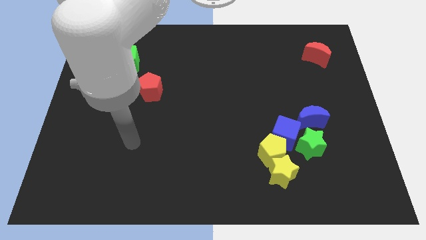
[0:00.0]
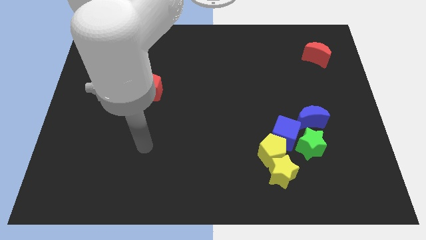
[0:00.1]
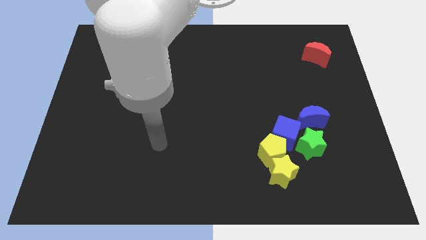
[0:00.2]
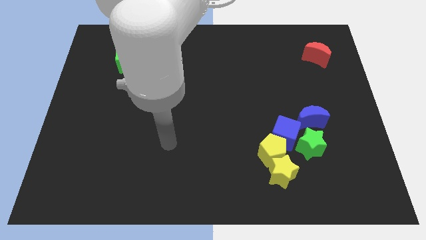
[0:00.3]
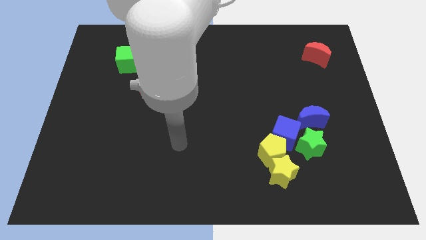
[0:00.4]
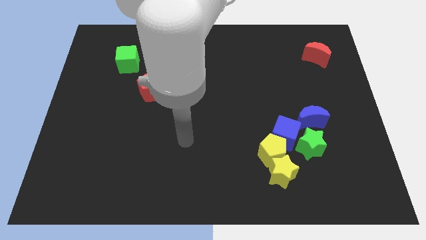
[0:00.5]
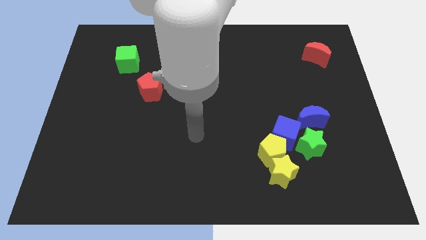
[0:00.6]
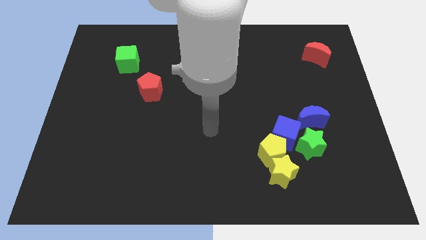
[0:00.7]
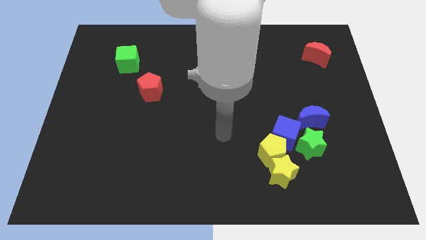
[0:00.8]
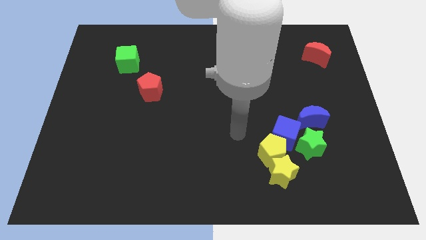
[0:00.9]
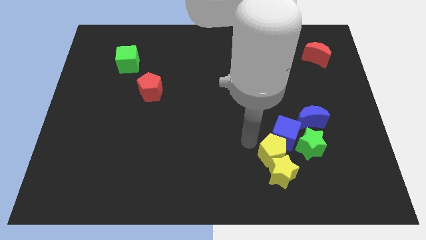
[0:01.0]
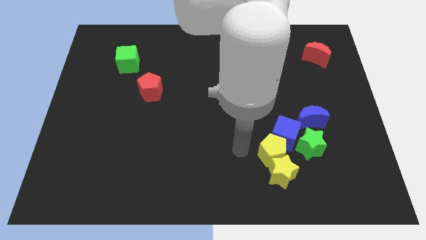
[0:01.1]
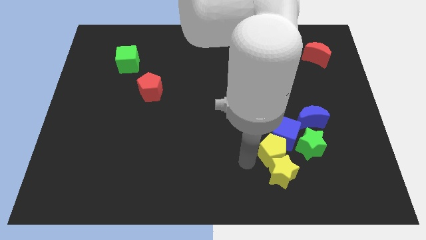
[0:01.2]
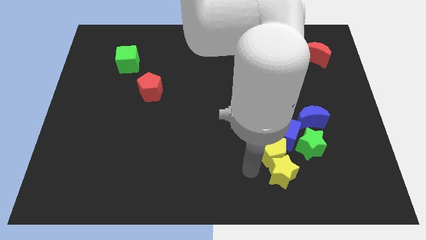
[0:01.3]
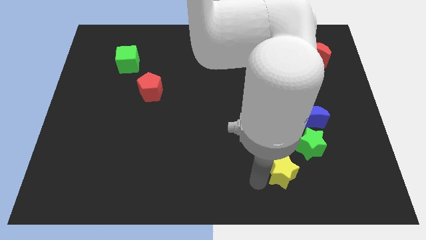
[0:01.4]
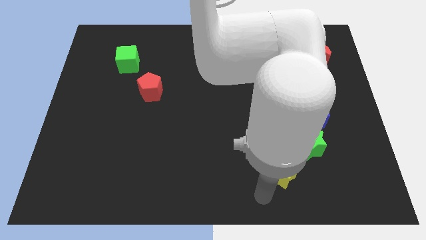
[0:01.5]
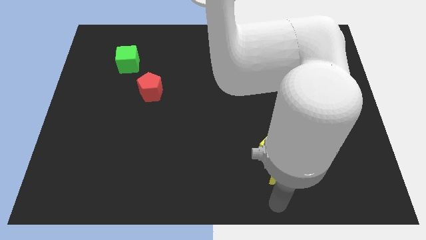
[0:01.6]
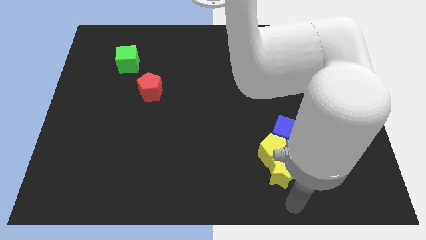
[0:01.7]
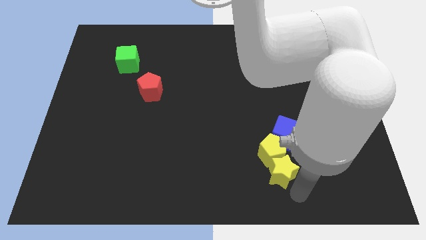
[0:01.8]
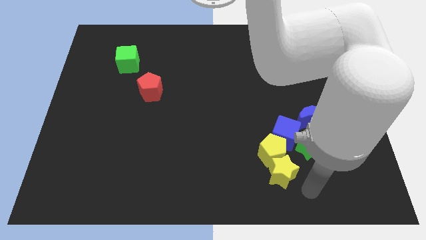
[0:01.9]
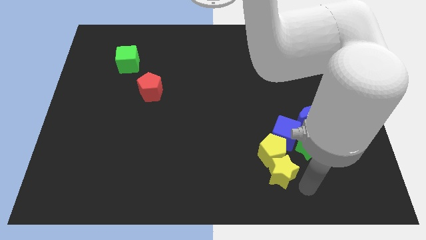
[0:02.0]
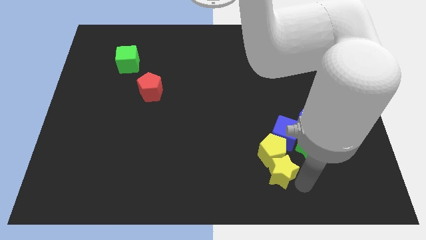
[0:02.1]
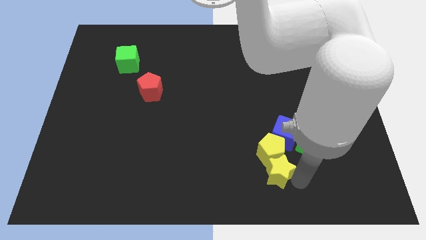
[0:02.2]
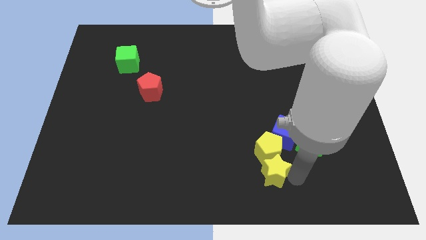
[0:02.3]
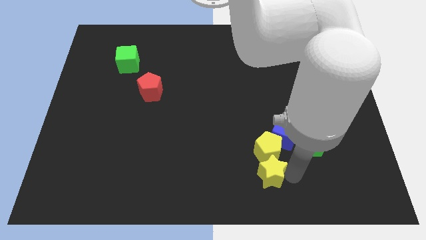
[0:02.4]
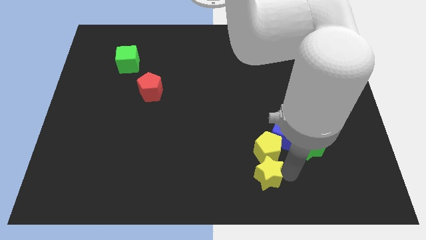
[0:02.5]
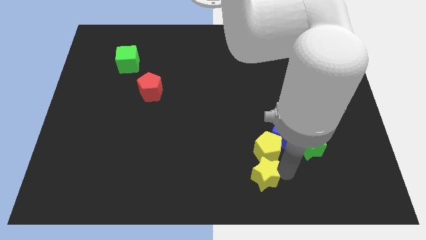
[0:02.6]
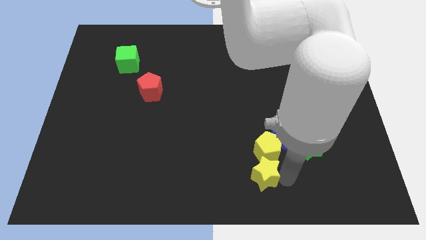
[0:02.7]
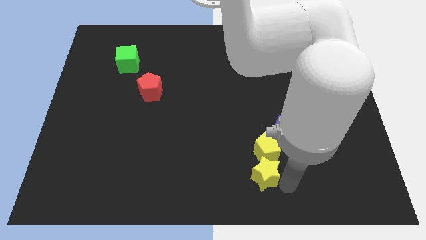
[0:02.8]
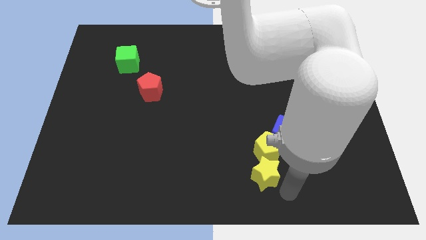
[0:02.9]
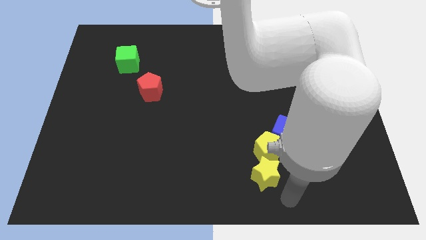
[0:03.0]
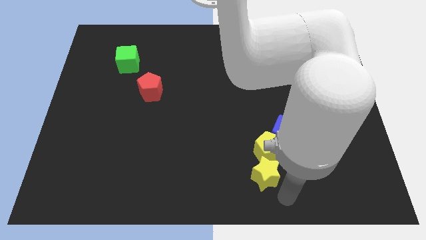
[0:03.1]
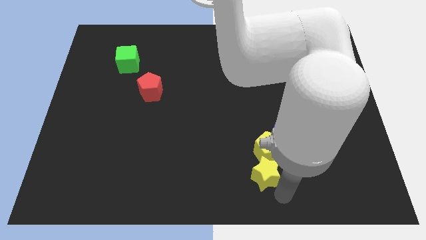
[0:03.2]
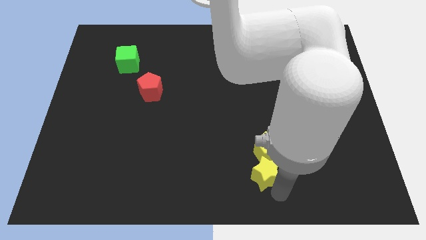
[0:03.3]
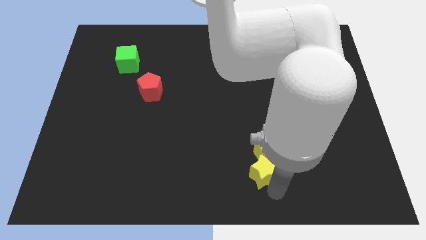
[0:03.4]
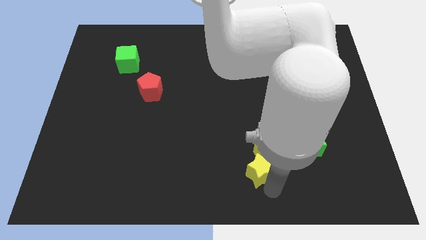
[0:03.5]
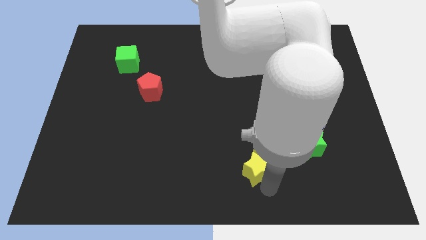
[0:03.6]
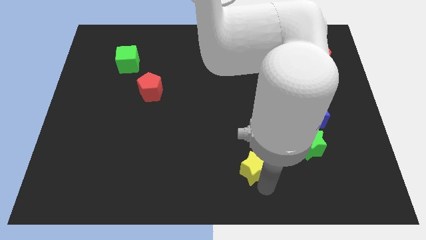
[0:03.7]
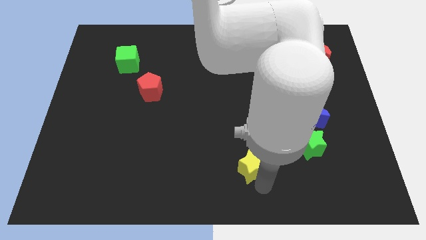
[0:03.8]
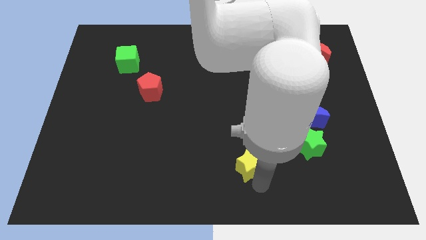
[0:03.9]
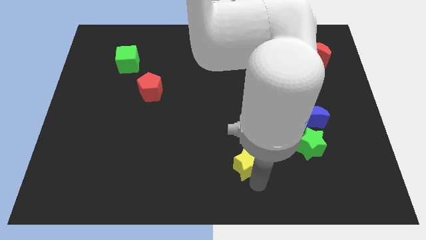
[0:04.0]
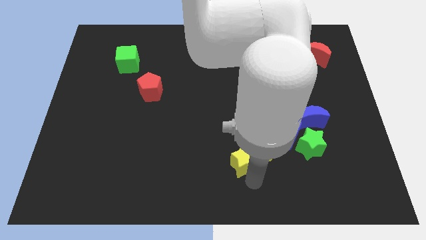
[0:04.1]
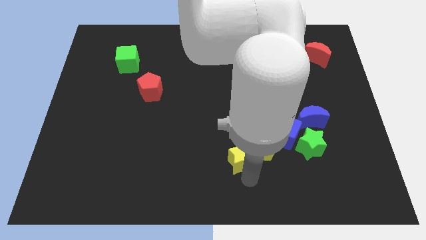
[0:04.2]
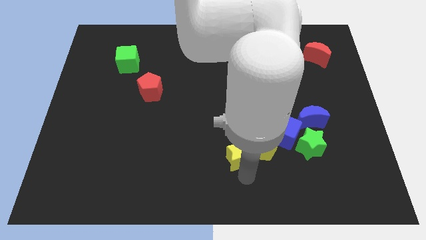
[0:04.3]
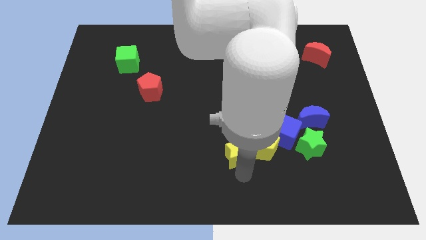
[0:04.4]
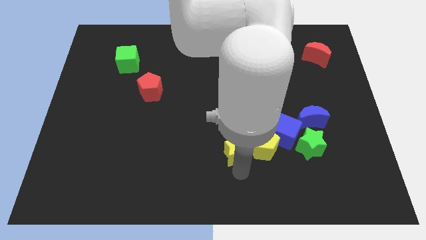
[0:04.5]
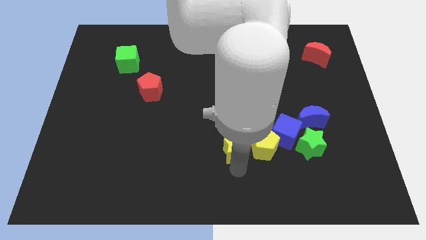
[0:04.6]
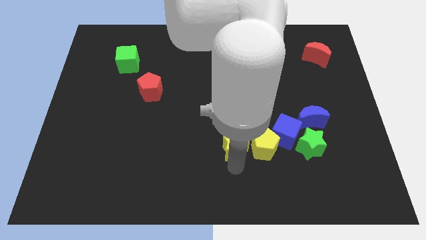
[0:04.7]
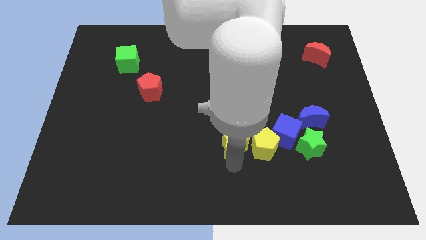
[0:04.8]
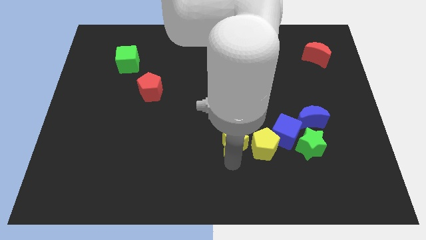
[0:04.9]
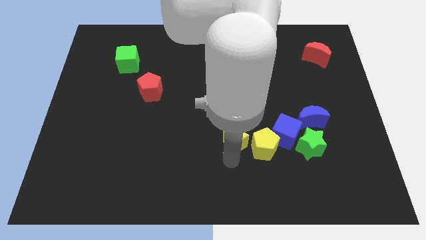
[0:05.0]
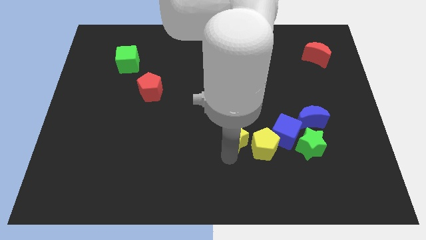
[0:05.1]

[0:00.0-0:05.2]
put the yellow star to the middle

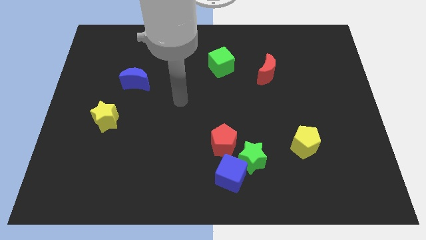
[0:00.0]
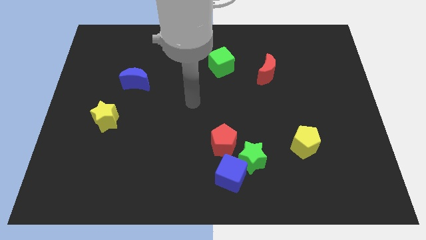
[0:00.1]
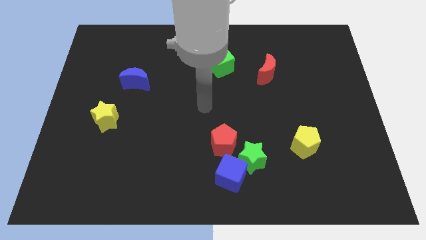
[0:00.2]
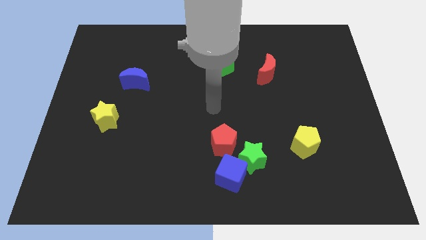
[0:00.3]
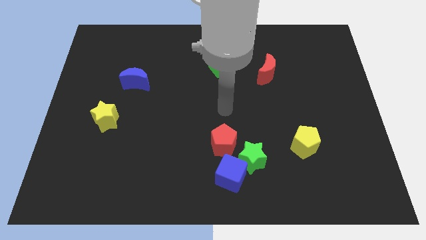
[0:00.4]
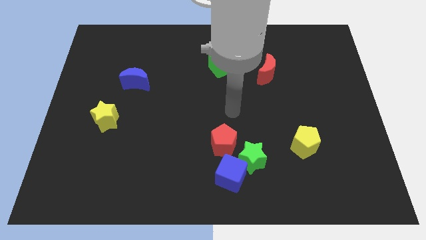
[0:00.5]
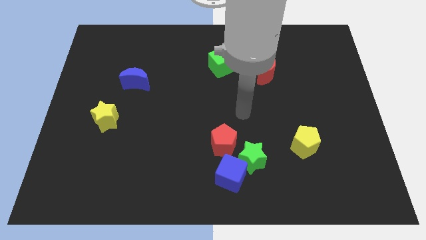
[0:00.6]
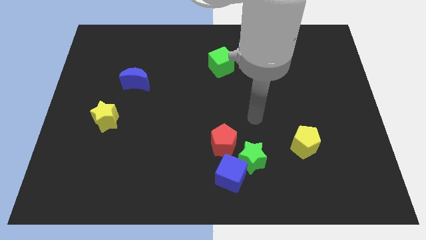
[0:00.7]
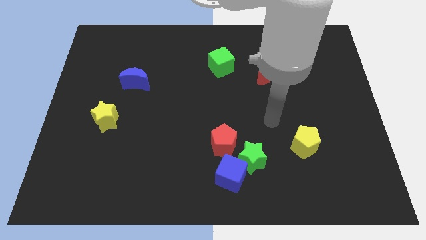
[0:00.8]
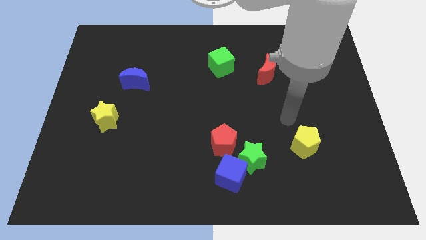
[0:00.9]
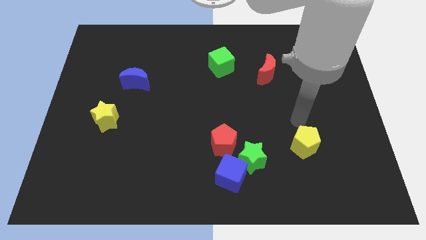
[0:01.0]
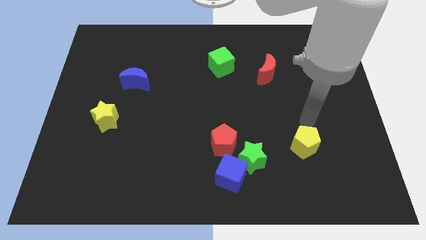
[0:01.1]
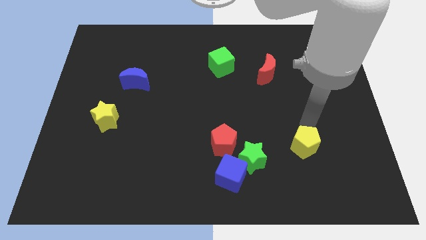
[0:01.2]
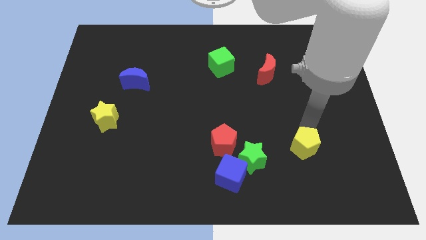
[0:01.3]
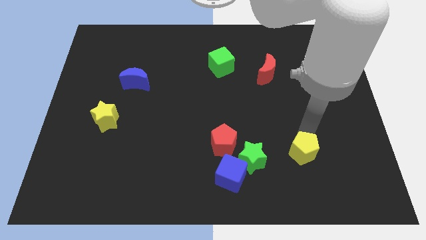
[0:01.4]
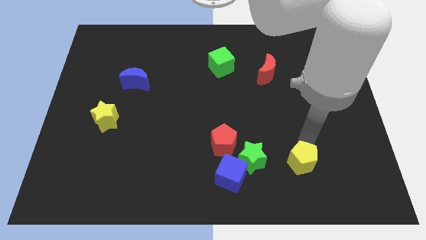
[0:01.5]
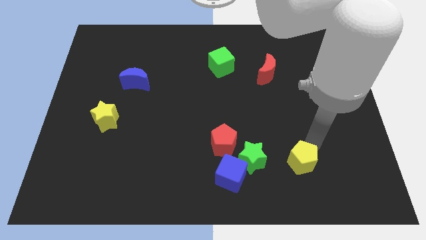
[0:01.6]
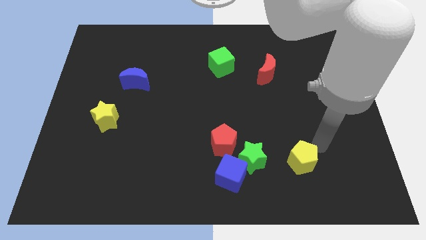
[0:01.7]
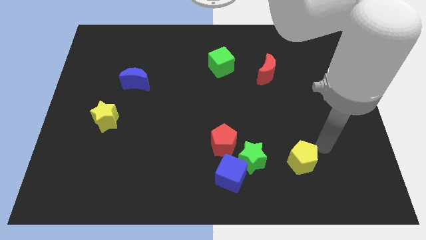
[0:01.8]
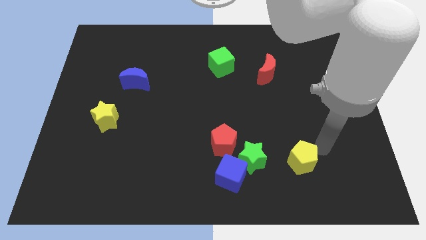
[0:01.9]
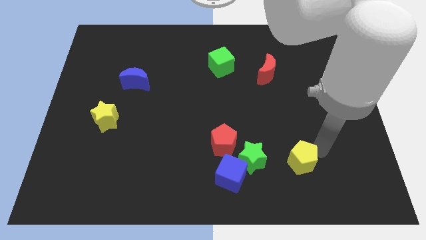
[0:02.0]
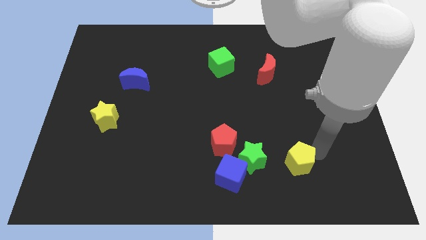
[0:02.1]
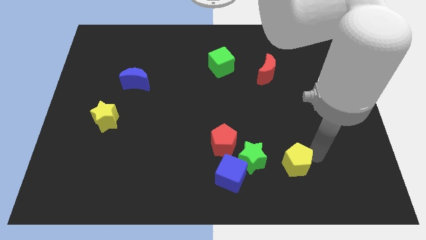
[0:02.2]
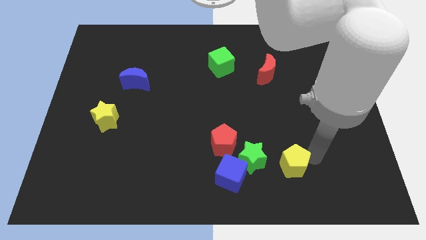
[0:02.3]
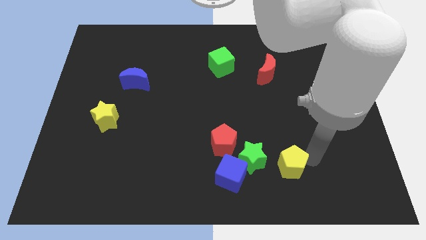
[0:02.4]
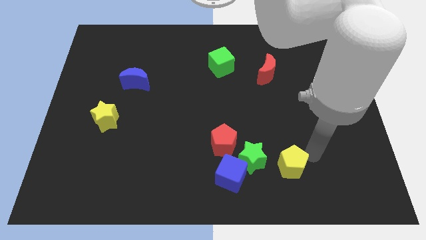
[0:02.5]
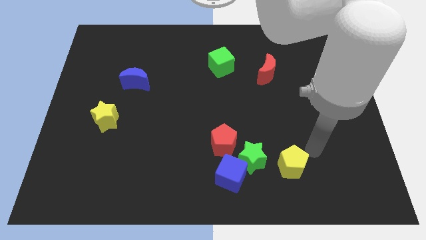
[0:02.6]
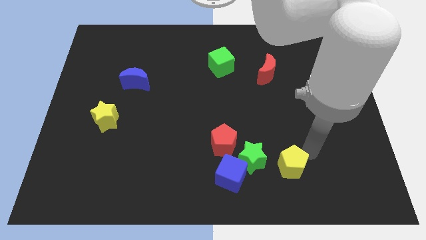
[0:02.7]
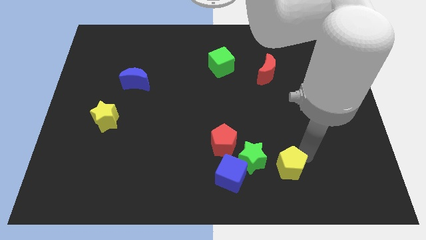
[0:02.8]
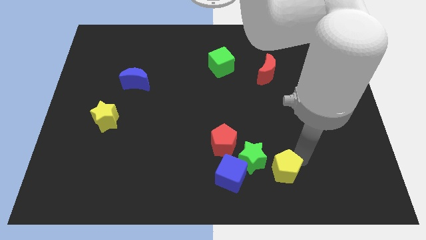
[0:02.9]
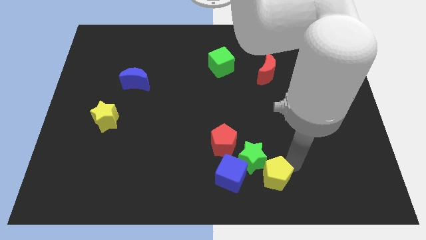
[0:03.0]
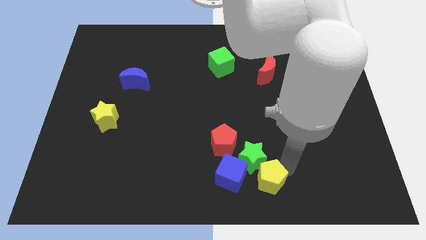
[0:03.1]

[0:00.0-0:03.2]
move the yellow pentagon to the bottom side
